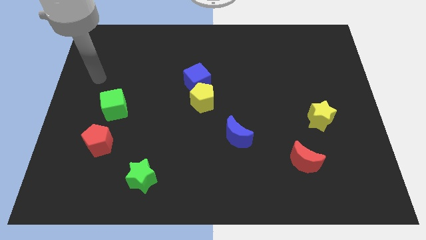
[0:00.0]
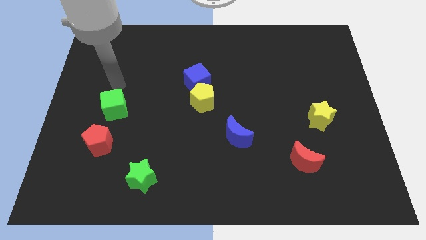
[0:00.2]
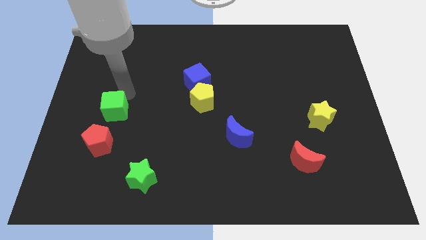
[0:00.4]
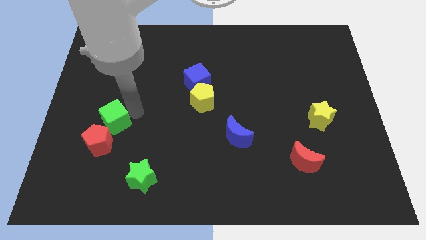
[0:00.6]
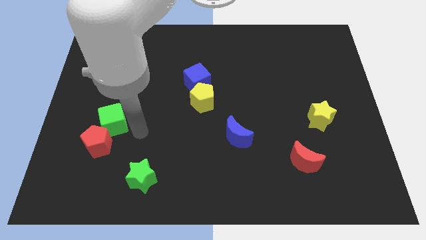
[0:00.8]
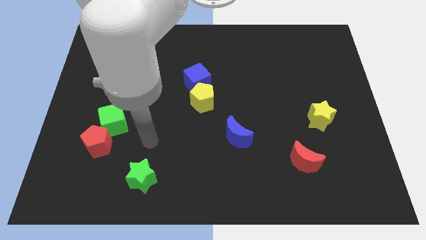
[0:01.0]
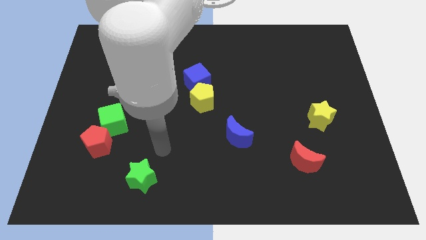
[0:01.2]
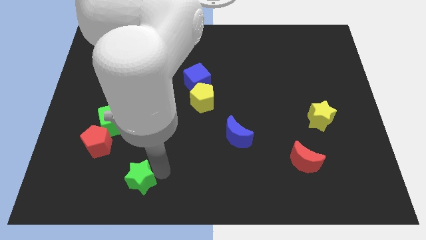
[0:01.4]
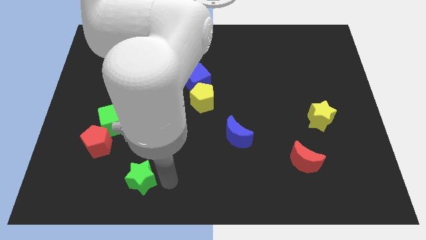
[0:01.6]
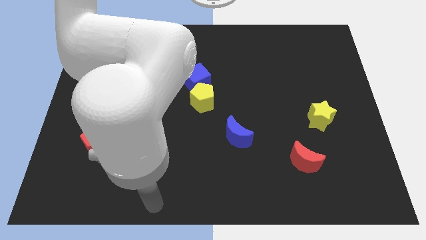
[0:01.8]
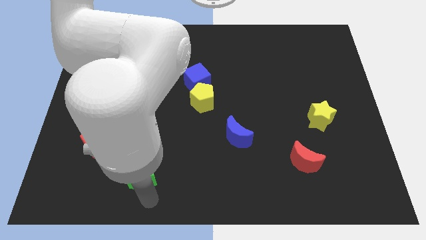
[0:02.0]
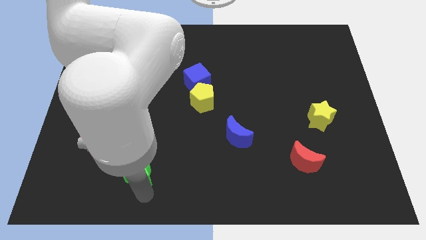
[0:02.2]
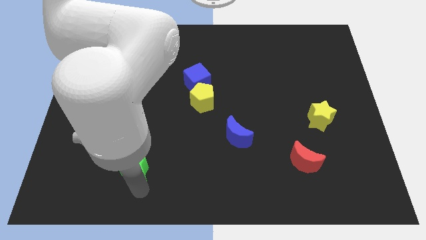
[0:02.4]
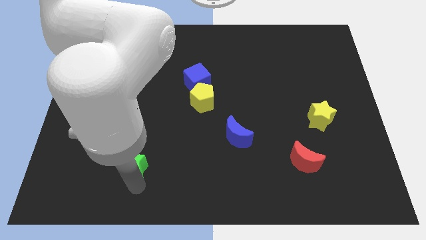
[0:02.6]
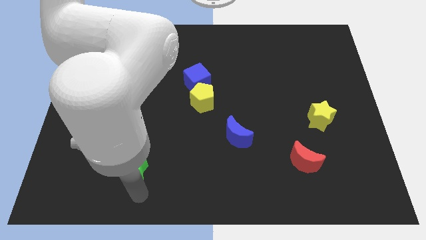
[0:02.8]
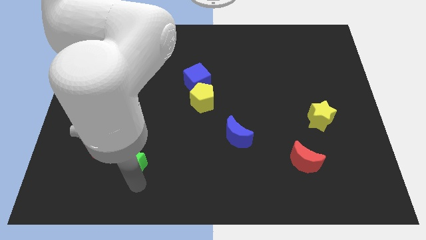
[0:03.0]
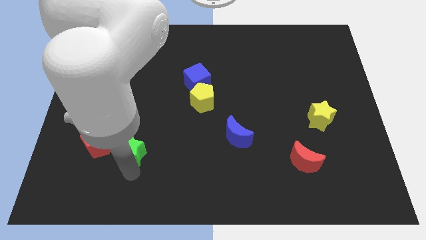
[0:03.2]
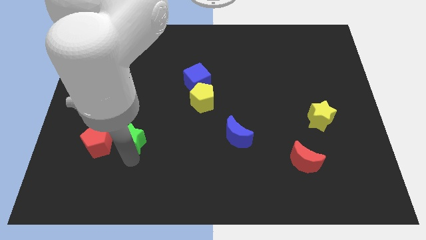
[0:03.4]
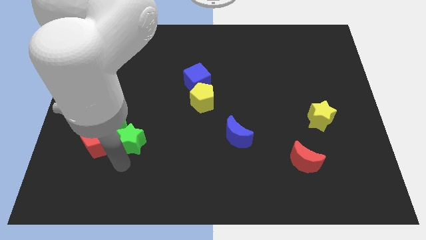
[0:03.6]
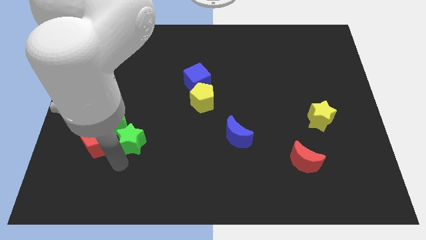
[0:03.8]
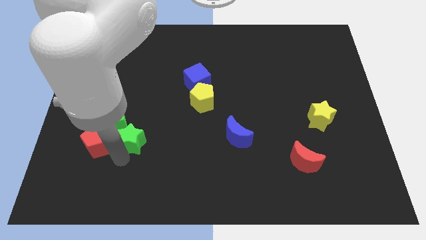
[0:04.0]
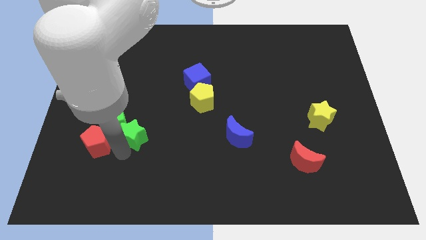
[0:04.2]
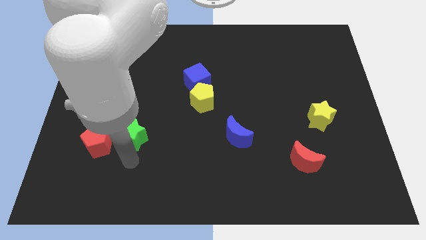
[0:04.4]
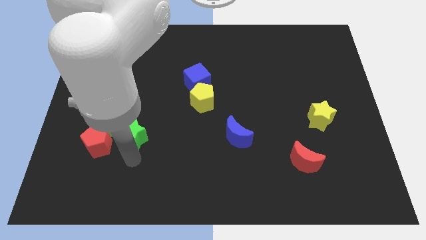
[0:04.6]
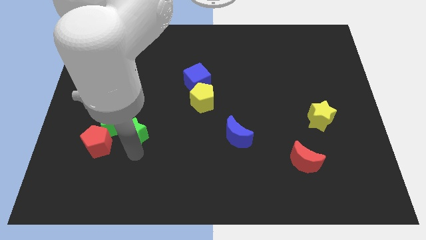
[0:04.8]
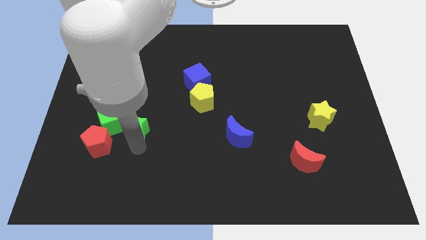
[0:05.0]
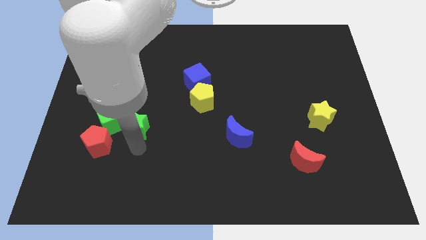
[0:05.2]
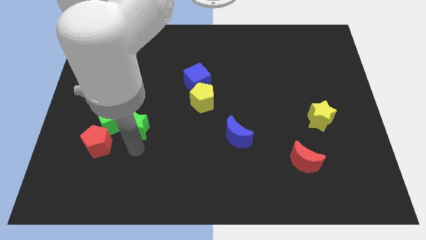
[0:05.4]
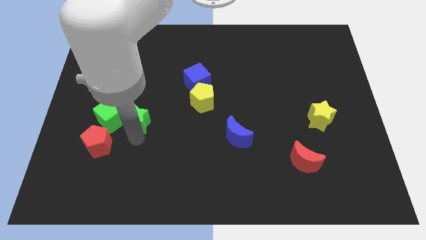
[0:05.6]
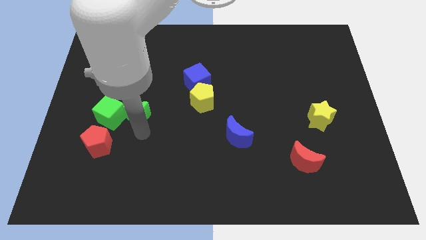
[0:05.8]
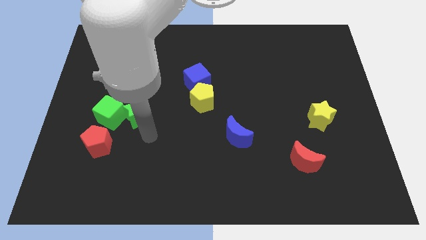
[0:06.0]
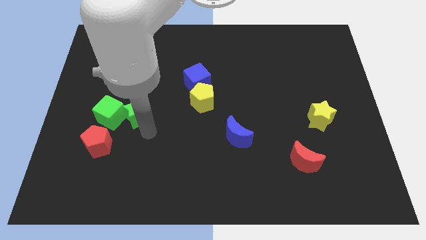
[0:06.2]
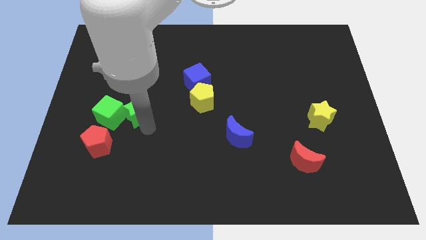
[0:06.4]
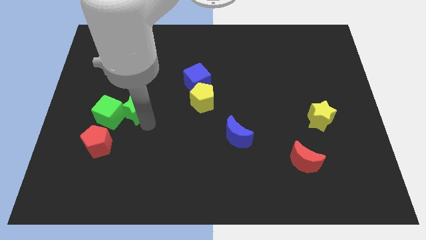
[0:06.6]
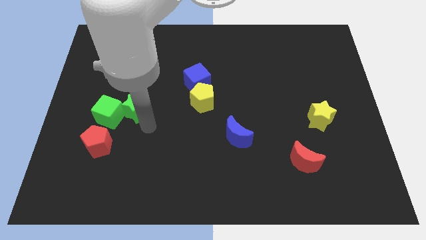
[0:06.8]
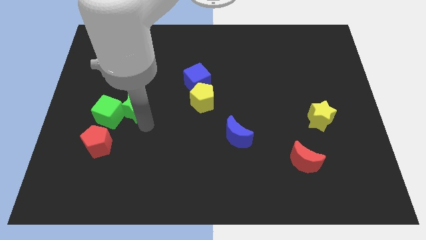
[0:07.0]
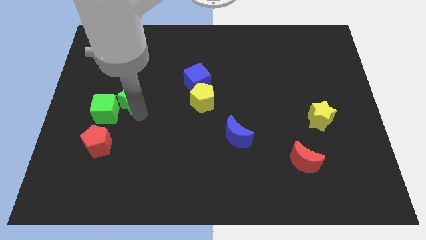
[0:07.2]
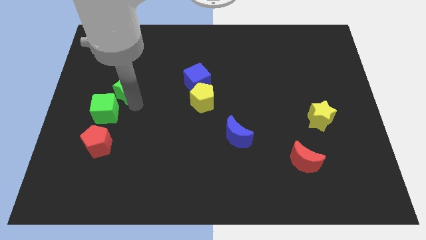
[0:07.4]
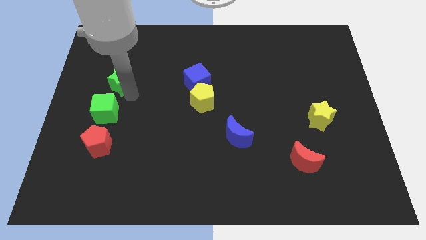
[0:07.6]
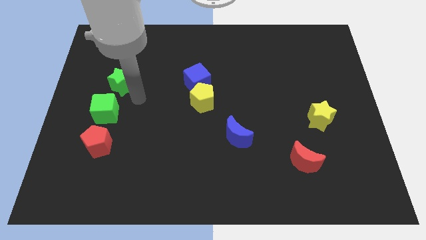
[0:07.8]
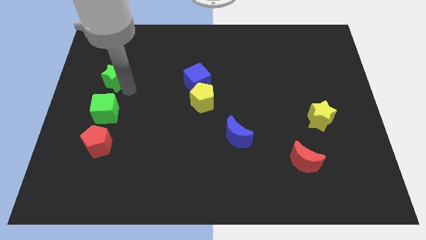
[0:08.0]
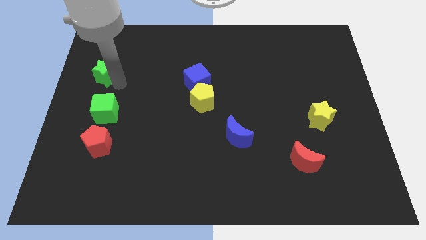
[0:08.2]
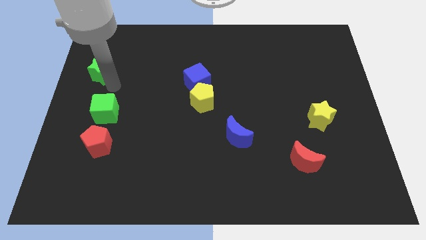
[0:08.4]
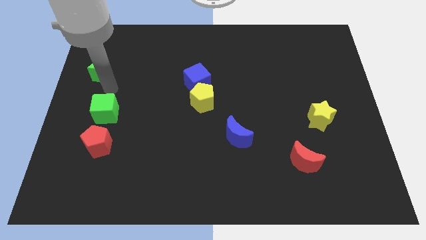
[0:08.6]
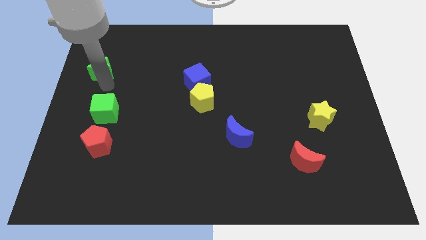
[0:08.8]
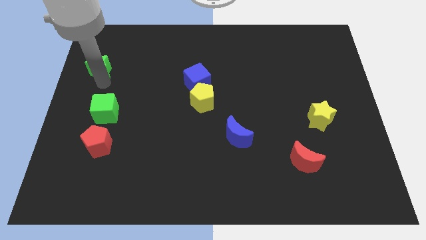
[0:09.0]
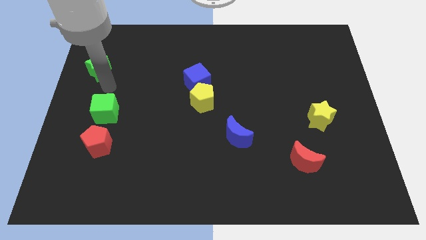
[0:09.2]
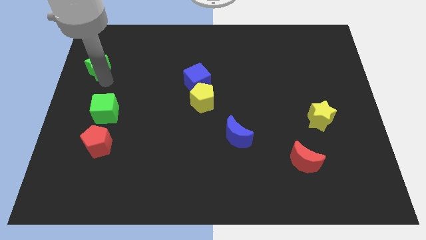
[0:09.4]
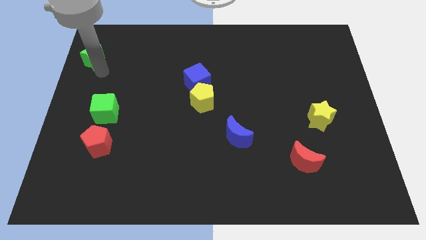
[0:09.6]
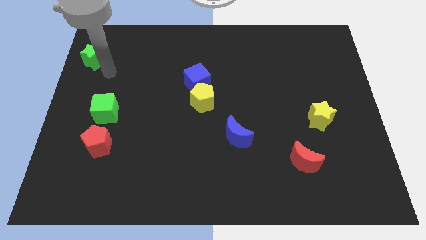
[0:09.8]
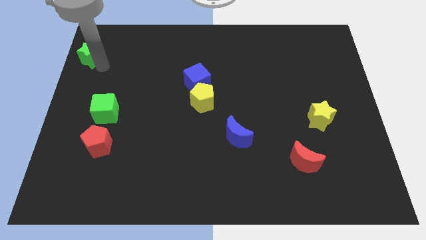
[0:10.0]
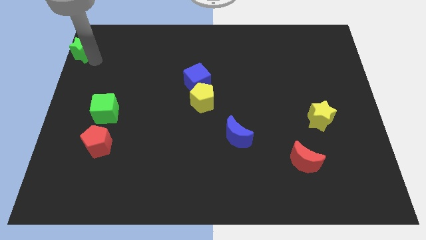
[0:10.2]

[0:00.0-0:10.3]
push the green star to the upper left corner

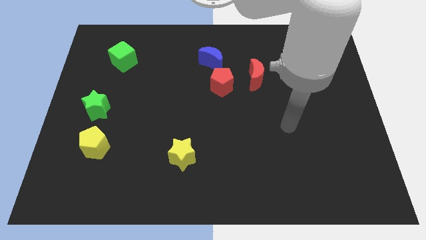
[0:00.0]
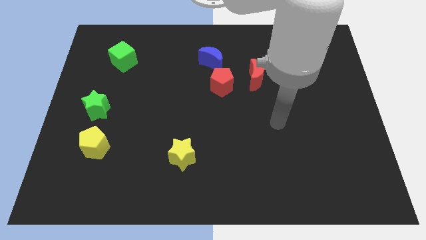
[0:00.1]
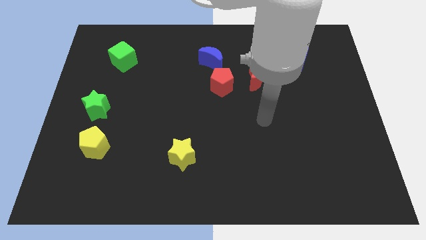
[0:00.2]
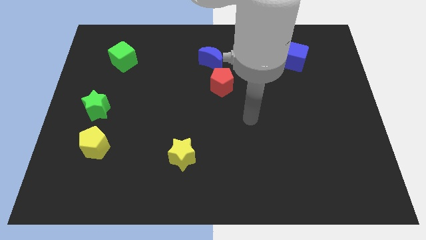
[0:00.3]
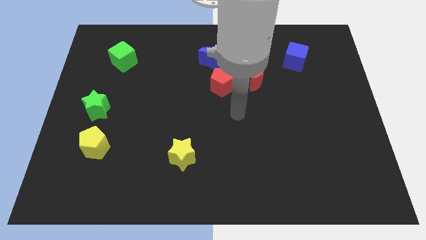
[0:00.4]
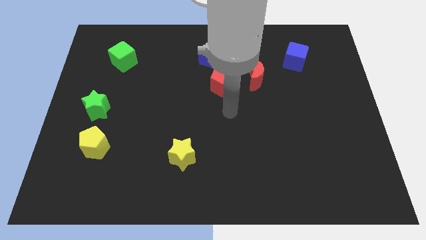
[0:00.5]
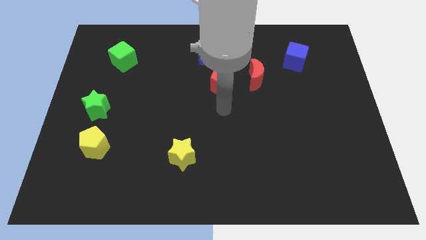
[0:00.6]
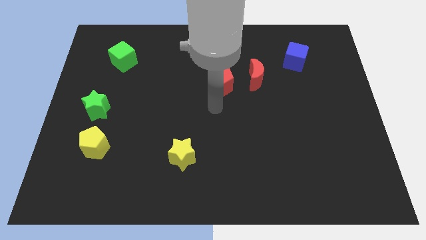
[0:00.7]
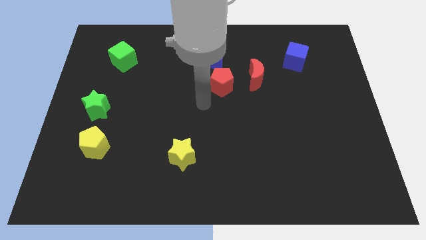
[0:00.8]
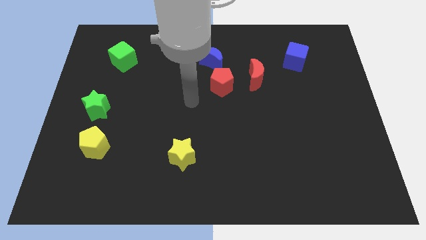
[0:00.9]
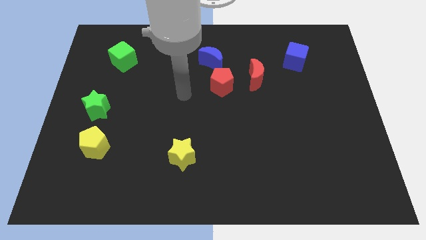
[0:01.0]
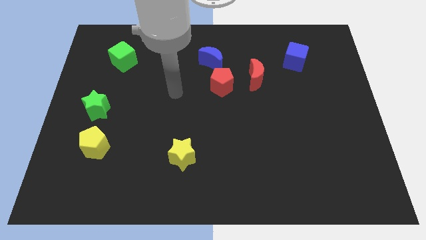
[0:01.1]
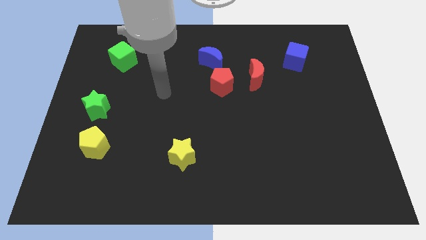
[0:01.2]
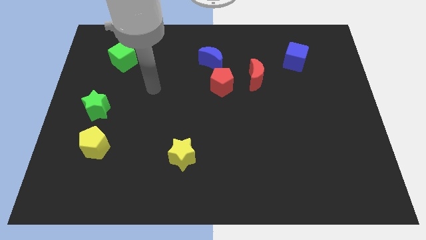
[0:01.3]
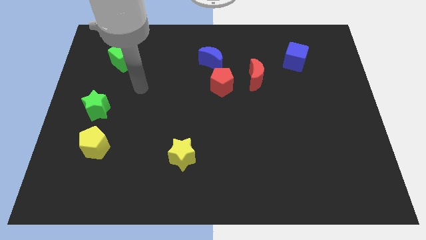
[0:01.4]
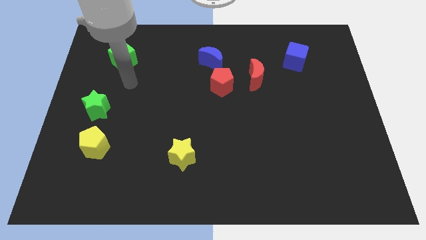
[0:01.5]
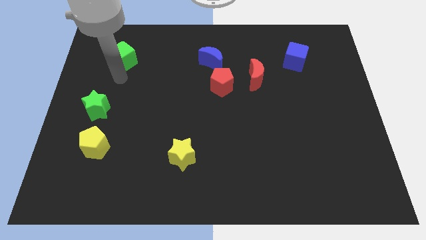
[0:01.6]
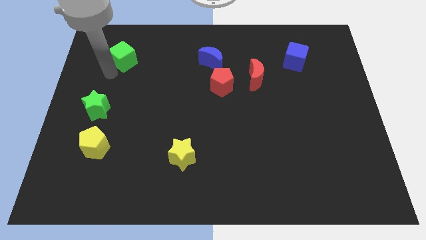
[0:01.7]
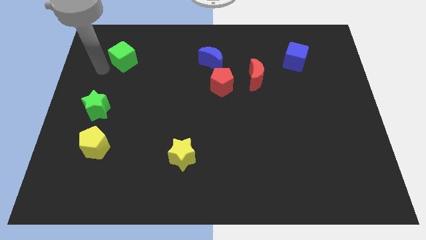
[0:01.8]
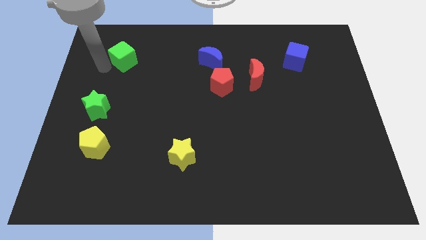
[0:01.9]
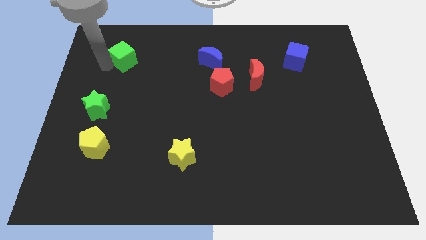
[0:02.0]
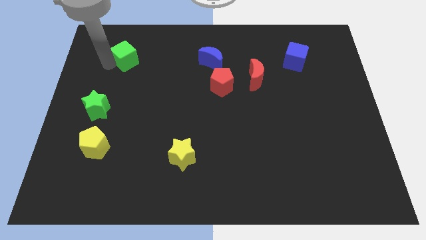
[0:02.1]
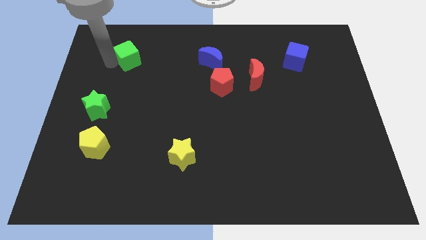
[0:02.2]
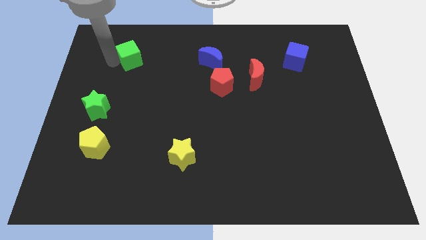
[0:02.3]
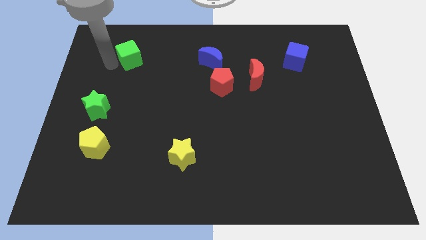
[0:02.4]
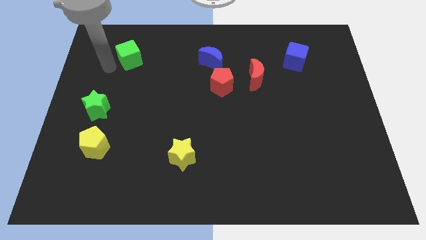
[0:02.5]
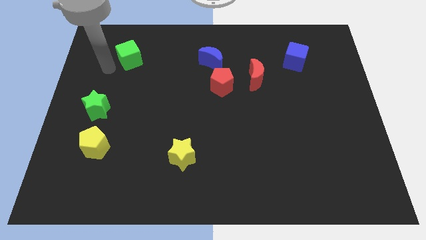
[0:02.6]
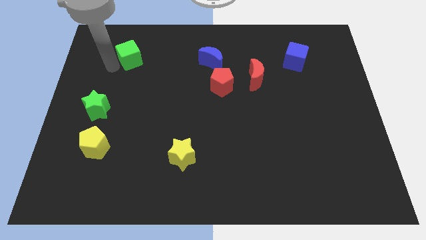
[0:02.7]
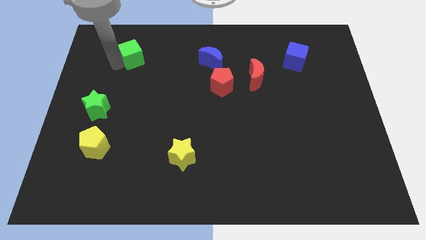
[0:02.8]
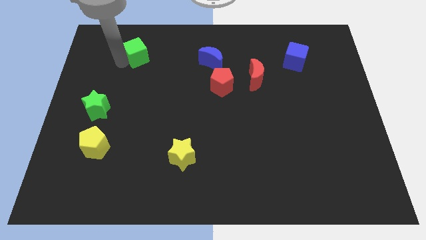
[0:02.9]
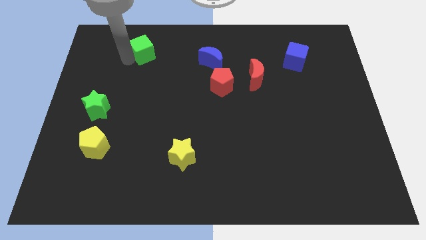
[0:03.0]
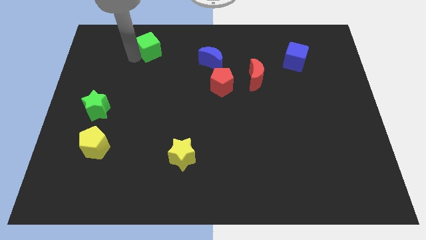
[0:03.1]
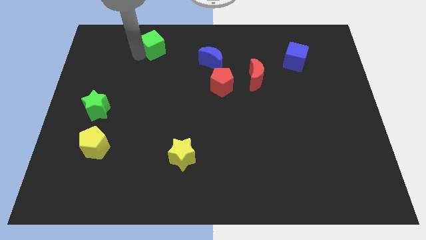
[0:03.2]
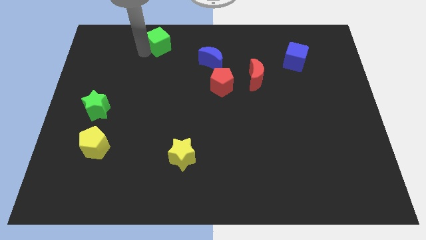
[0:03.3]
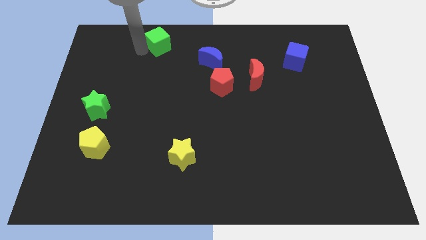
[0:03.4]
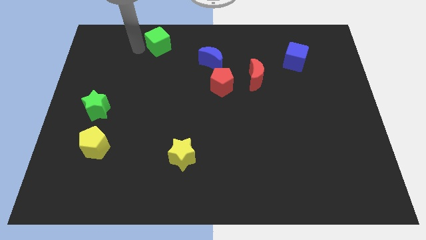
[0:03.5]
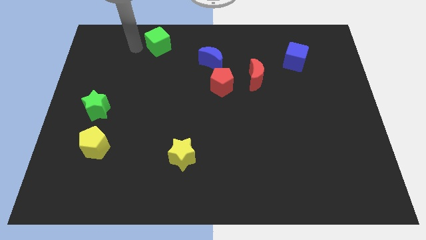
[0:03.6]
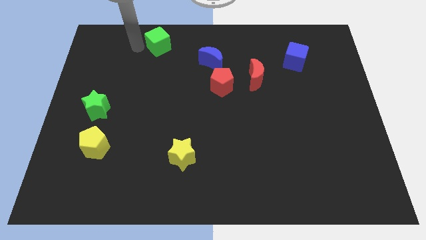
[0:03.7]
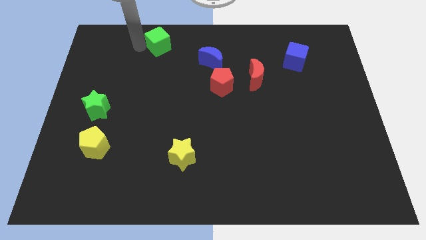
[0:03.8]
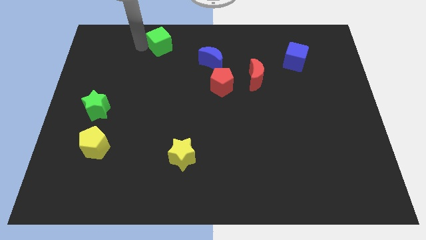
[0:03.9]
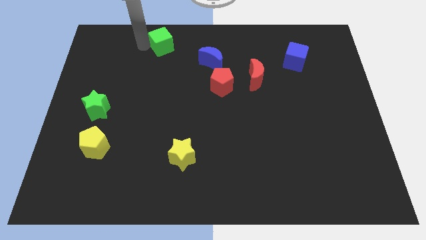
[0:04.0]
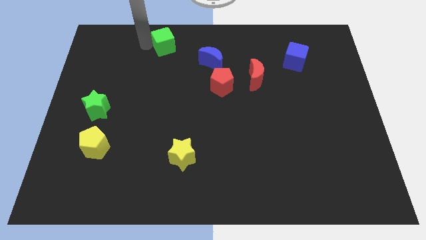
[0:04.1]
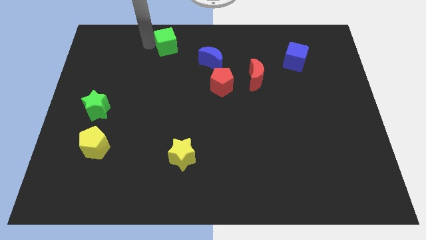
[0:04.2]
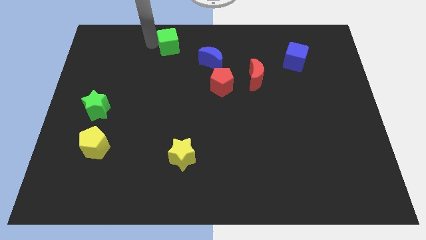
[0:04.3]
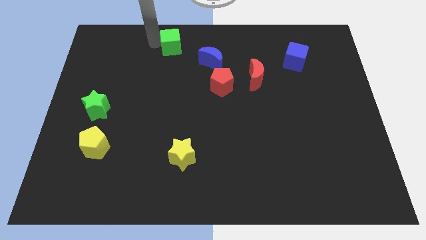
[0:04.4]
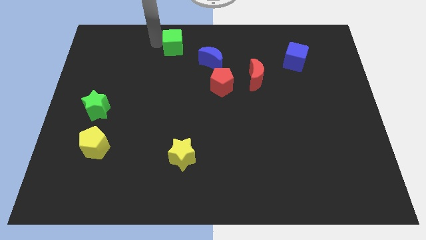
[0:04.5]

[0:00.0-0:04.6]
slide the green cube to the top side
